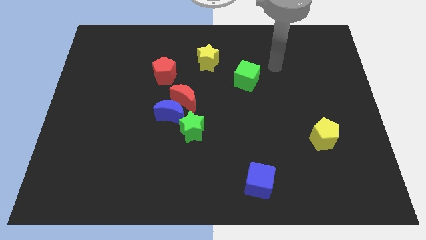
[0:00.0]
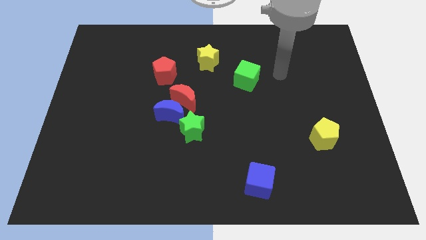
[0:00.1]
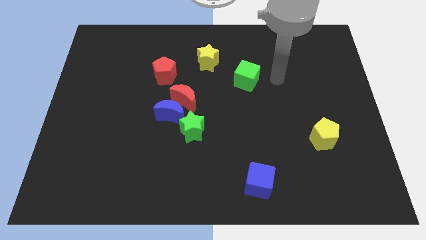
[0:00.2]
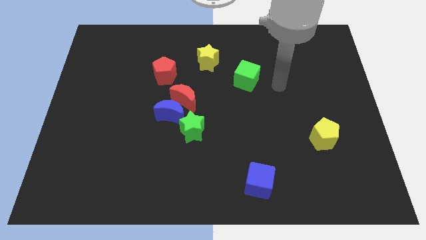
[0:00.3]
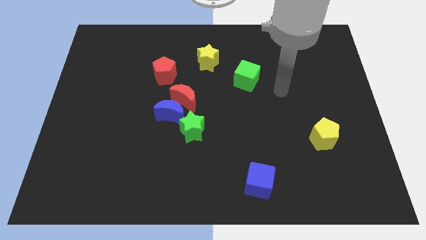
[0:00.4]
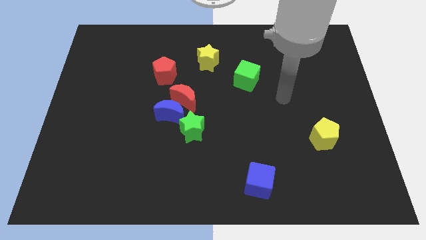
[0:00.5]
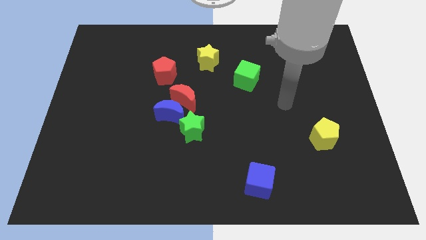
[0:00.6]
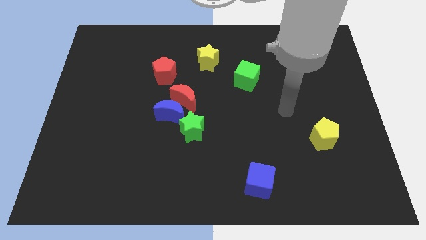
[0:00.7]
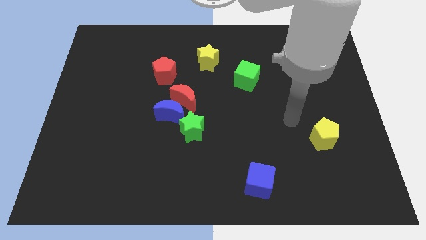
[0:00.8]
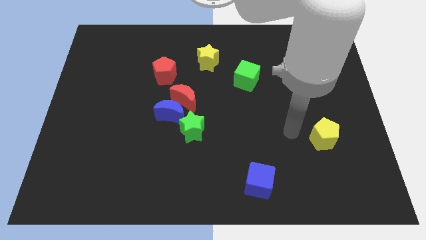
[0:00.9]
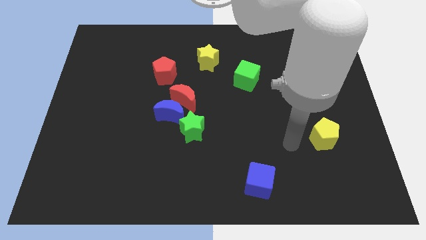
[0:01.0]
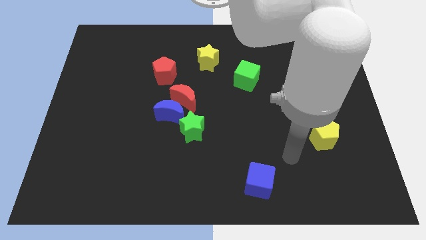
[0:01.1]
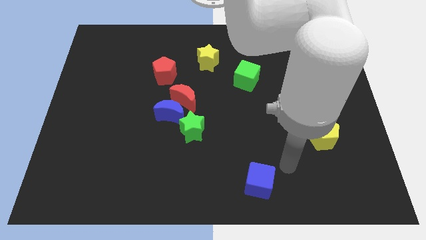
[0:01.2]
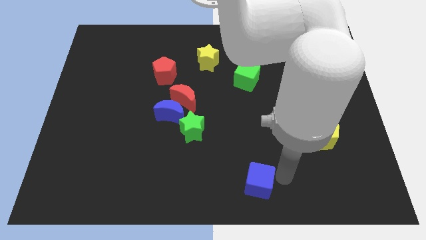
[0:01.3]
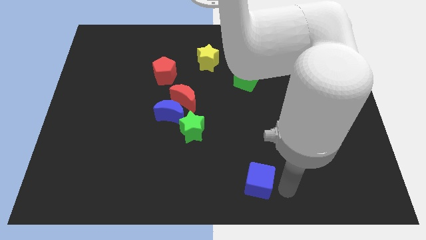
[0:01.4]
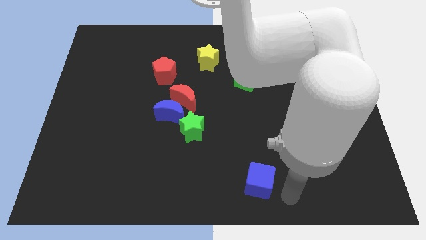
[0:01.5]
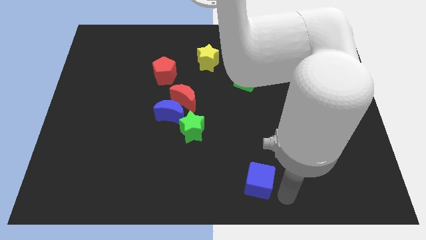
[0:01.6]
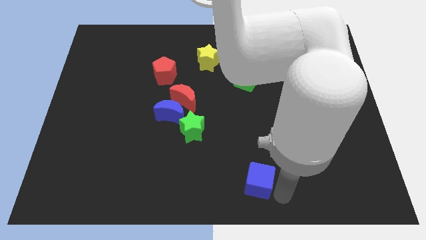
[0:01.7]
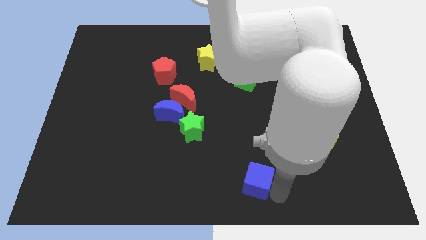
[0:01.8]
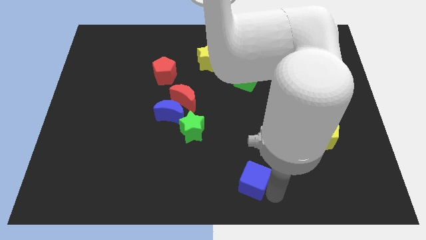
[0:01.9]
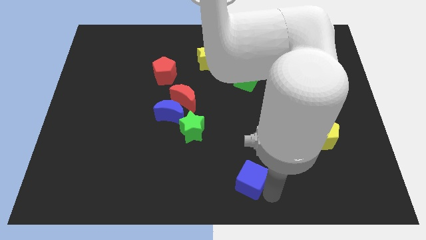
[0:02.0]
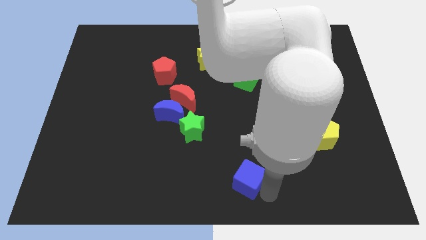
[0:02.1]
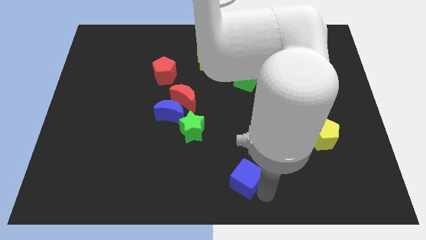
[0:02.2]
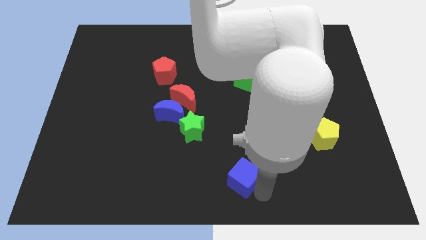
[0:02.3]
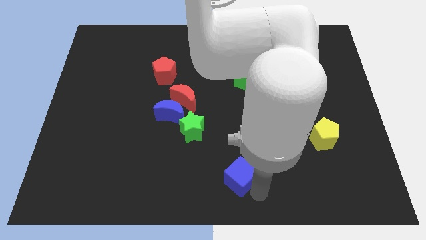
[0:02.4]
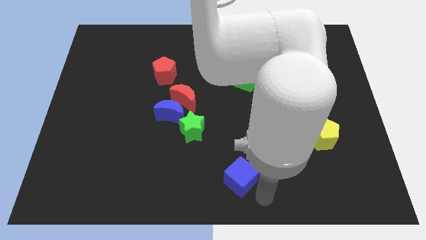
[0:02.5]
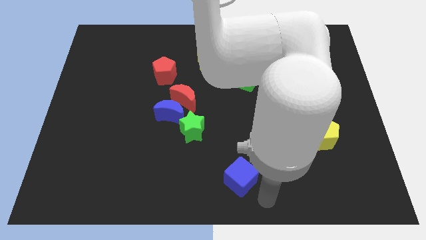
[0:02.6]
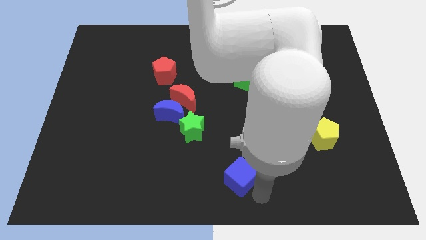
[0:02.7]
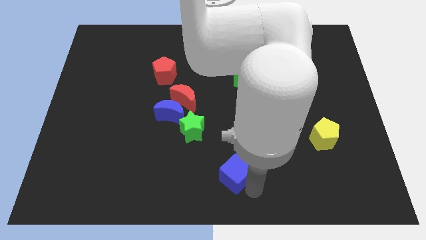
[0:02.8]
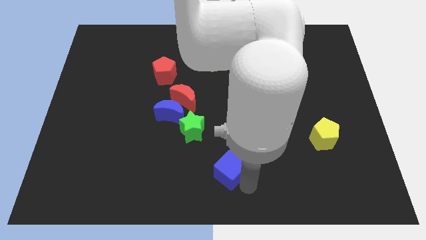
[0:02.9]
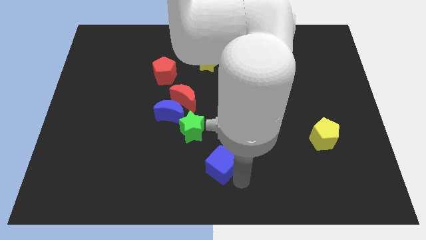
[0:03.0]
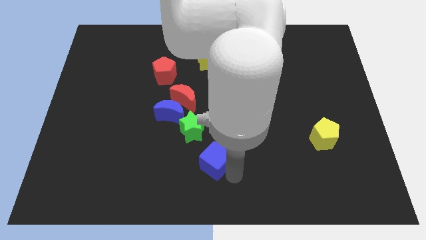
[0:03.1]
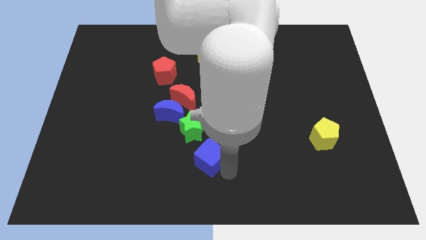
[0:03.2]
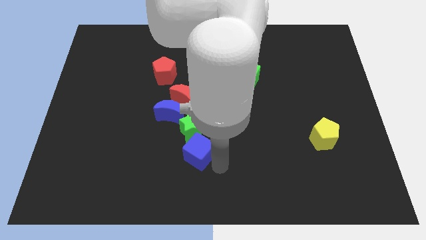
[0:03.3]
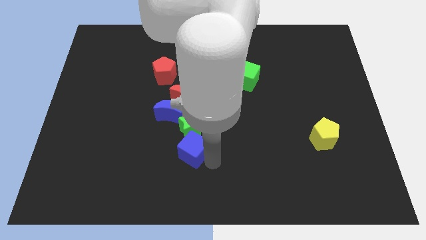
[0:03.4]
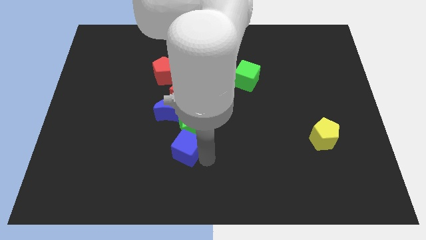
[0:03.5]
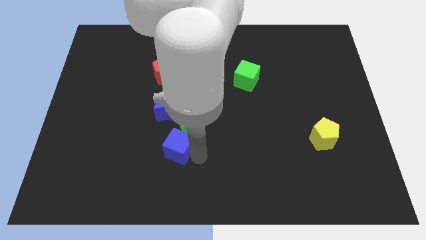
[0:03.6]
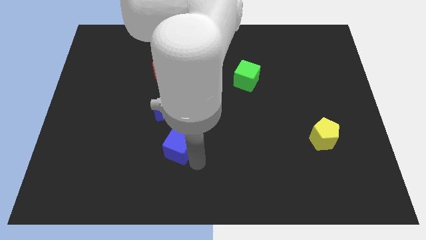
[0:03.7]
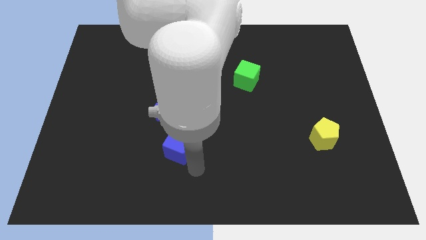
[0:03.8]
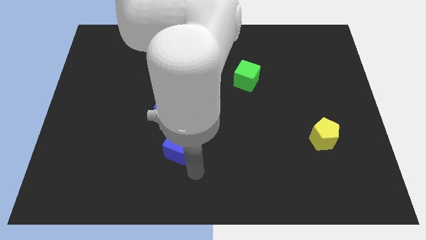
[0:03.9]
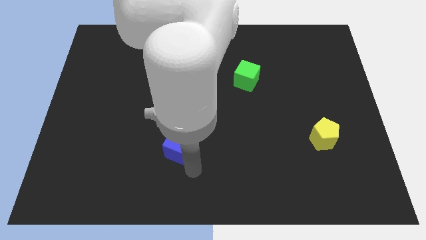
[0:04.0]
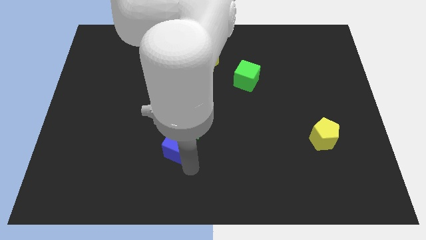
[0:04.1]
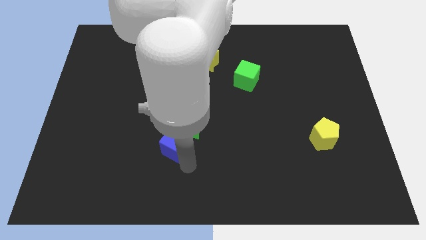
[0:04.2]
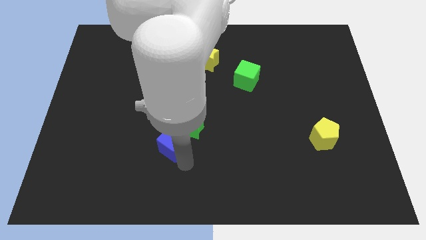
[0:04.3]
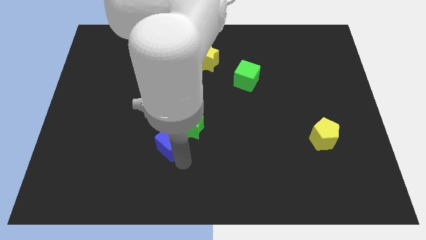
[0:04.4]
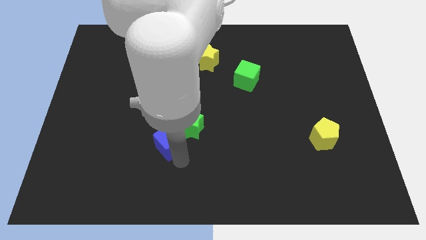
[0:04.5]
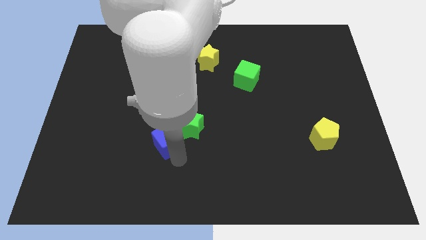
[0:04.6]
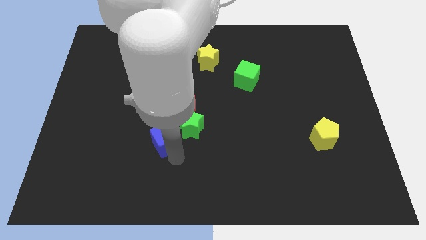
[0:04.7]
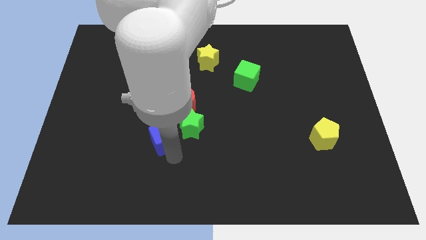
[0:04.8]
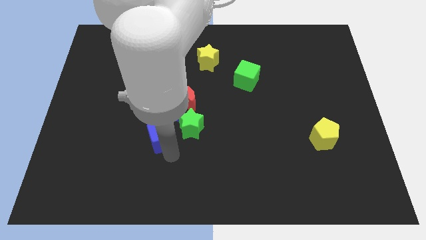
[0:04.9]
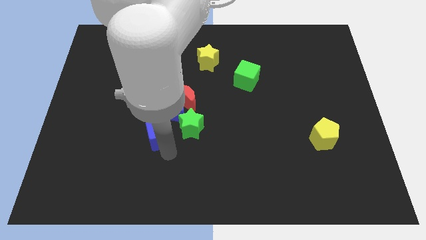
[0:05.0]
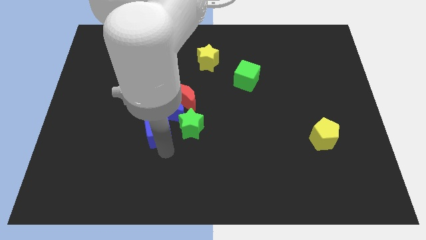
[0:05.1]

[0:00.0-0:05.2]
put the blue cube next to the blue moon

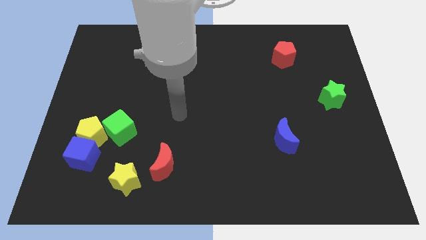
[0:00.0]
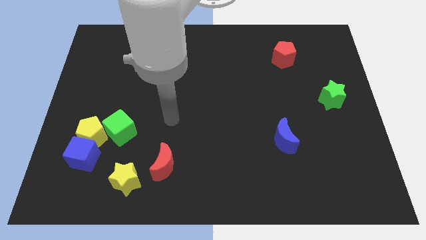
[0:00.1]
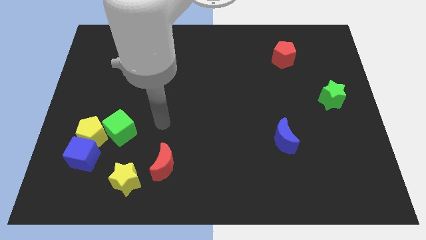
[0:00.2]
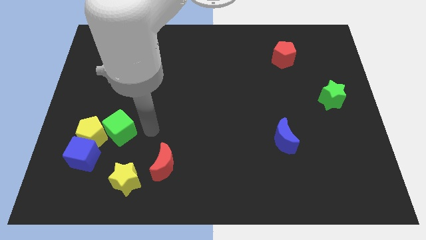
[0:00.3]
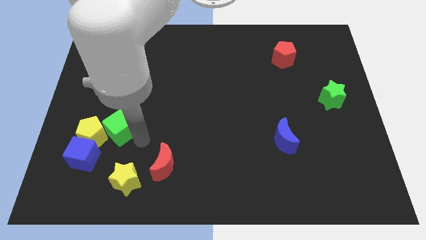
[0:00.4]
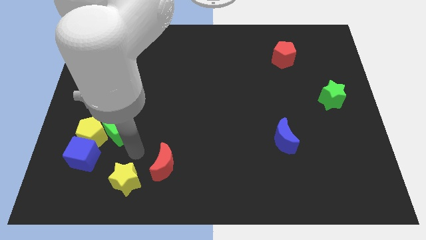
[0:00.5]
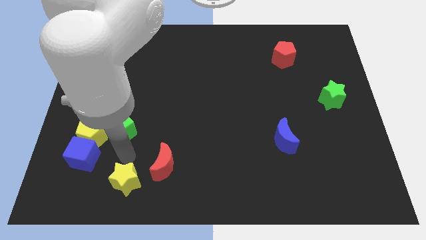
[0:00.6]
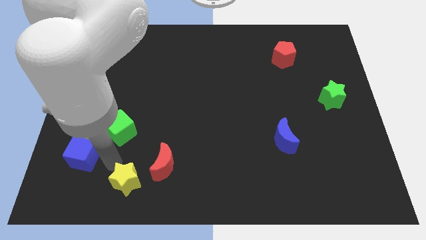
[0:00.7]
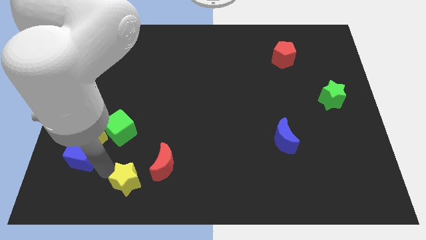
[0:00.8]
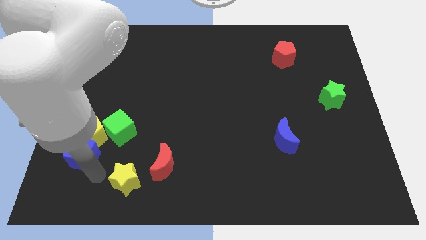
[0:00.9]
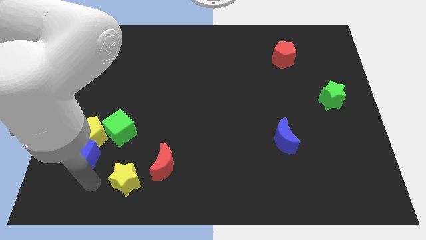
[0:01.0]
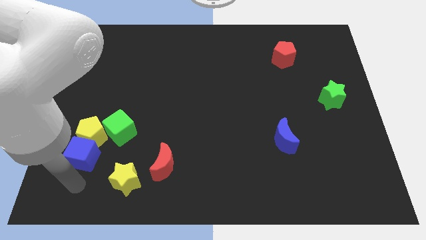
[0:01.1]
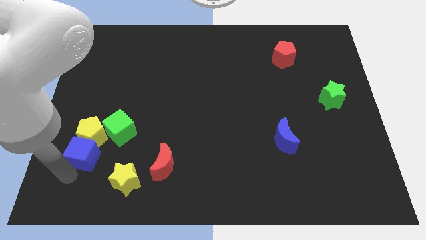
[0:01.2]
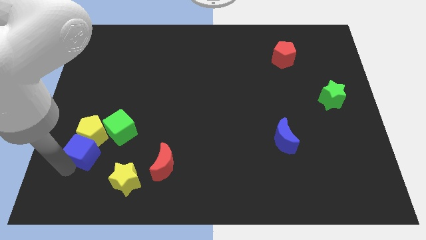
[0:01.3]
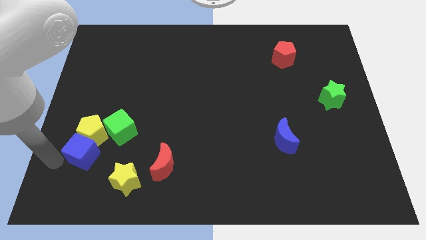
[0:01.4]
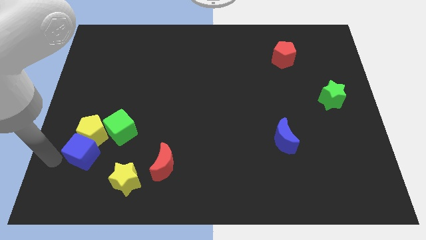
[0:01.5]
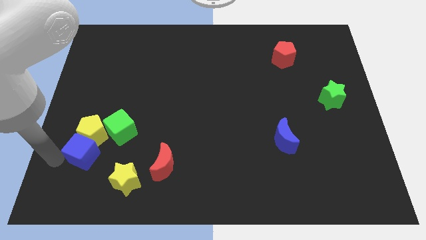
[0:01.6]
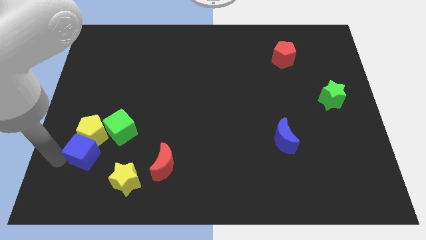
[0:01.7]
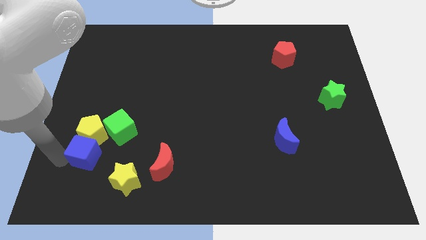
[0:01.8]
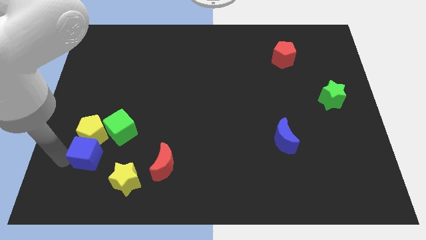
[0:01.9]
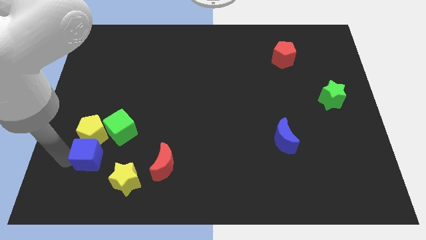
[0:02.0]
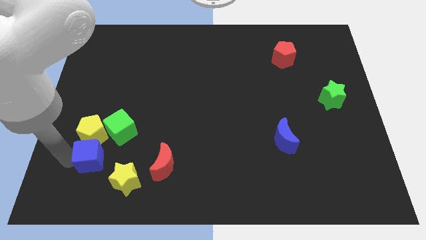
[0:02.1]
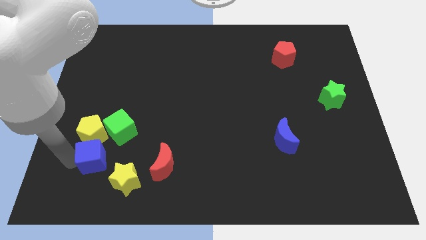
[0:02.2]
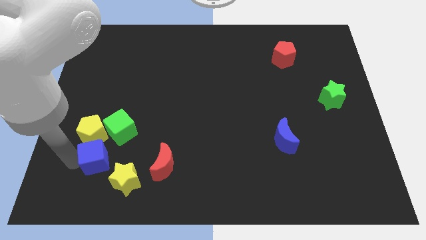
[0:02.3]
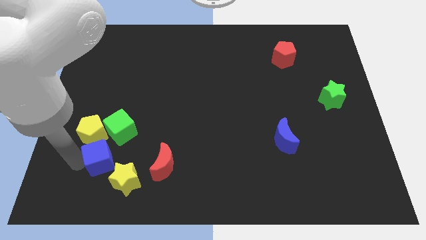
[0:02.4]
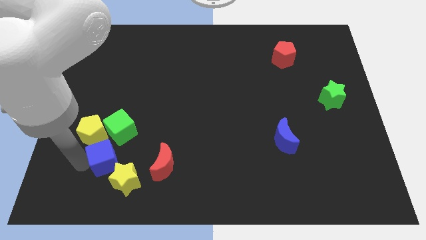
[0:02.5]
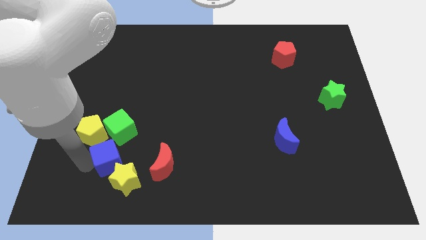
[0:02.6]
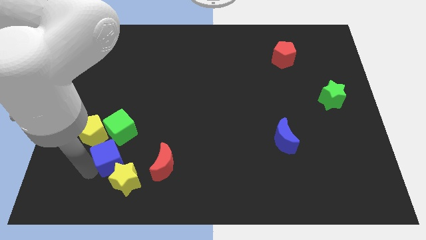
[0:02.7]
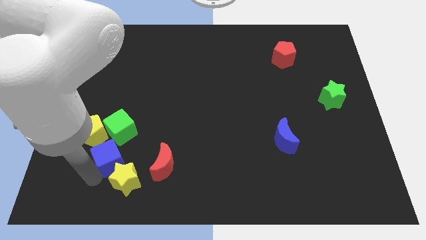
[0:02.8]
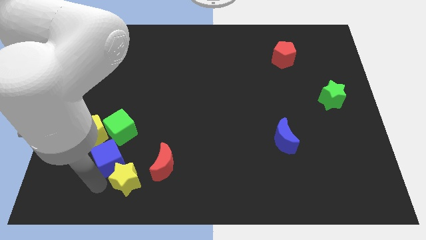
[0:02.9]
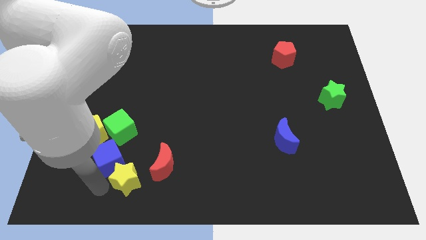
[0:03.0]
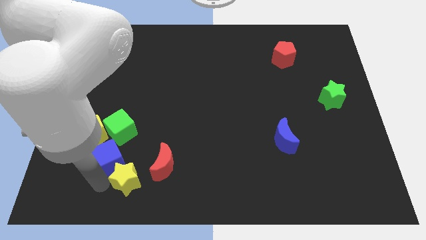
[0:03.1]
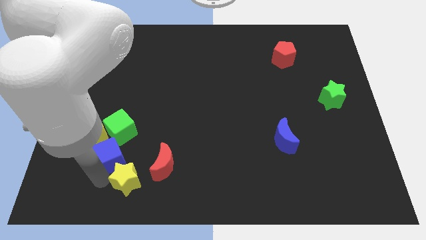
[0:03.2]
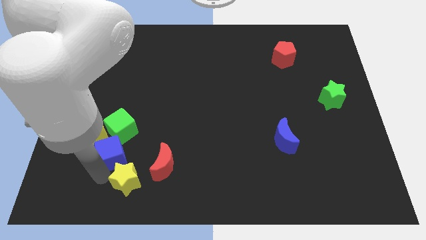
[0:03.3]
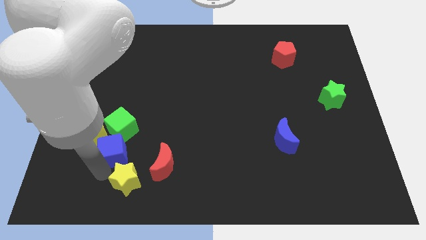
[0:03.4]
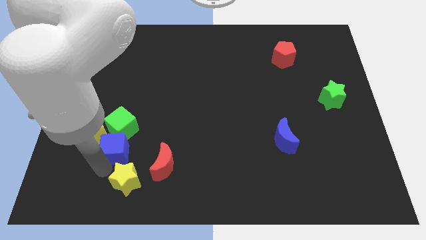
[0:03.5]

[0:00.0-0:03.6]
push the blue cube close to the green cube
